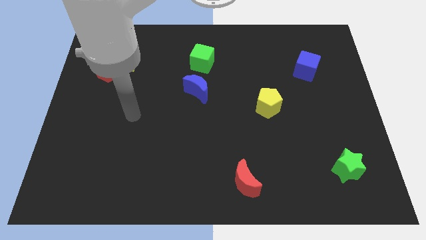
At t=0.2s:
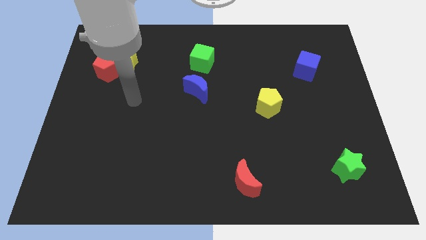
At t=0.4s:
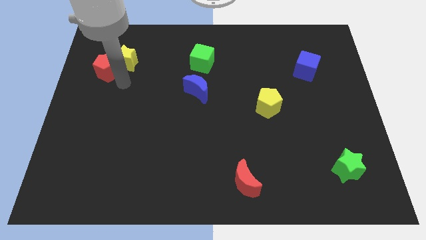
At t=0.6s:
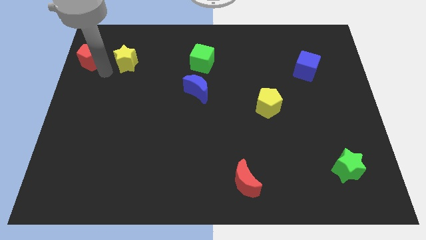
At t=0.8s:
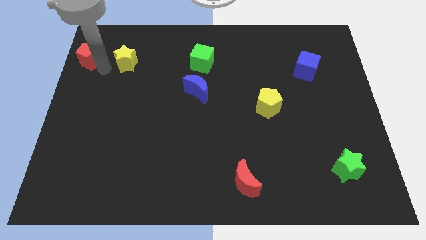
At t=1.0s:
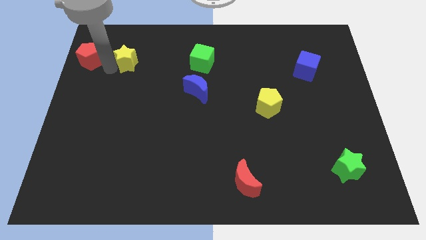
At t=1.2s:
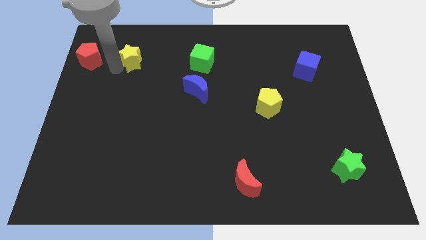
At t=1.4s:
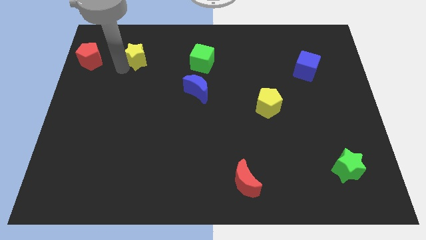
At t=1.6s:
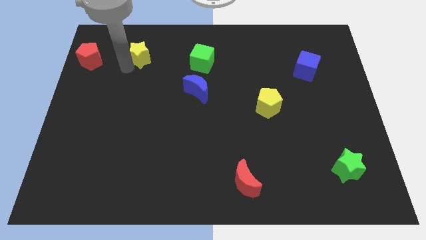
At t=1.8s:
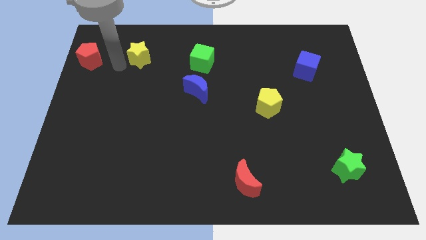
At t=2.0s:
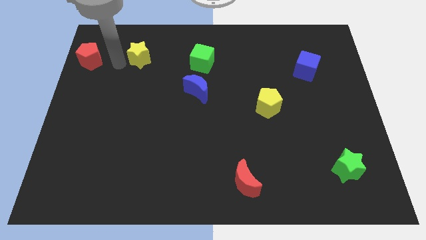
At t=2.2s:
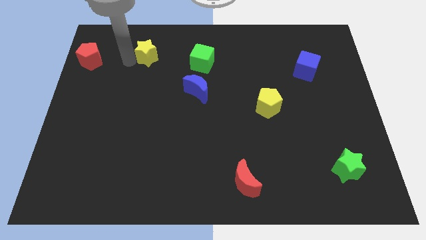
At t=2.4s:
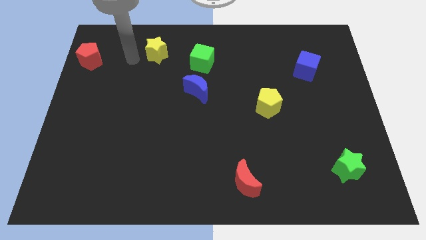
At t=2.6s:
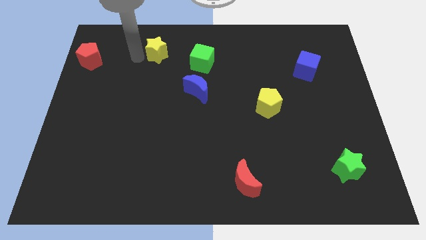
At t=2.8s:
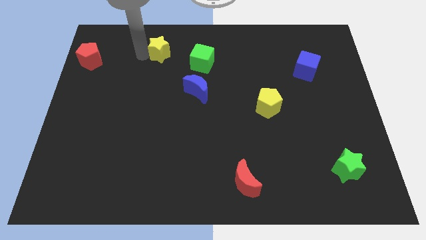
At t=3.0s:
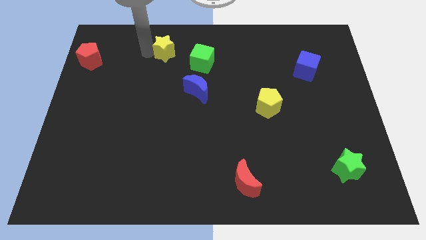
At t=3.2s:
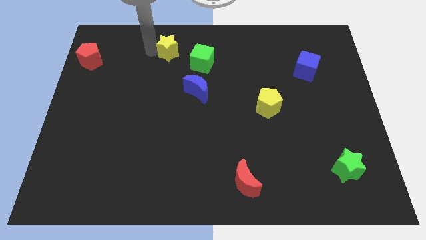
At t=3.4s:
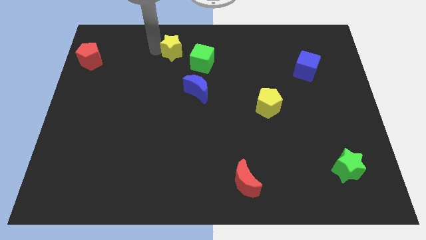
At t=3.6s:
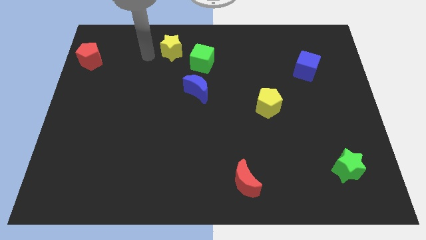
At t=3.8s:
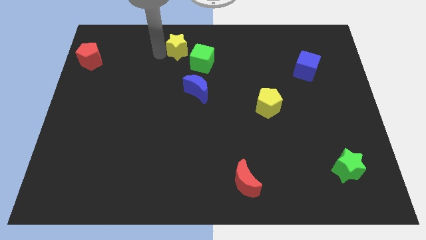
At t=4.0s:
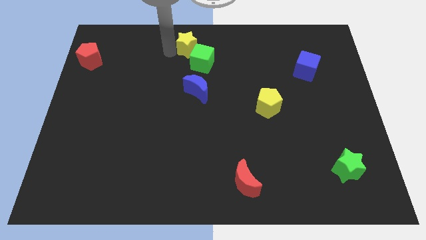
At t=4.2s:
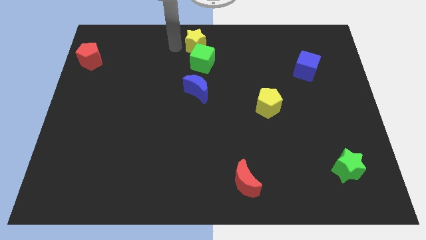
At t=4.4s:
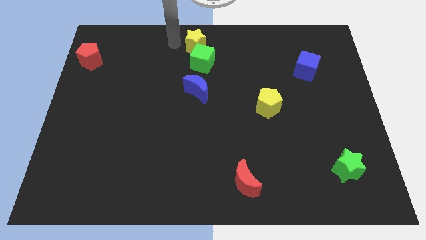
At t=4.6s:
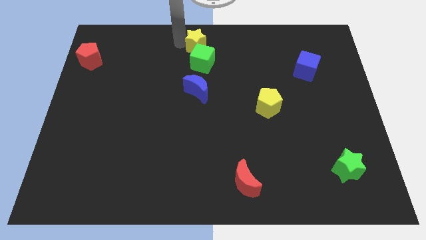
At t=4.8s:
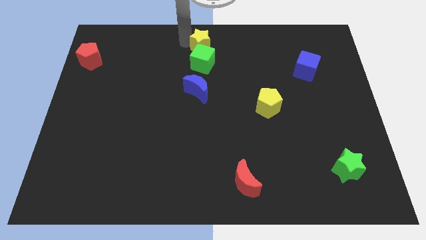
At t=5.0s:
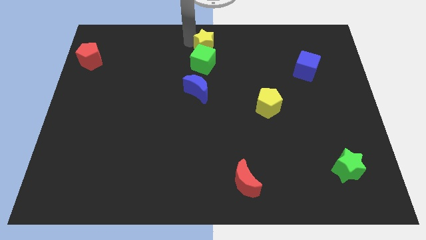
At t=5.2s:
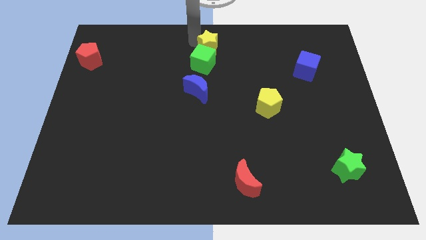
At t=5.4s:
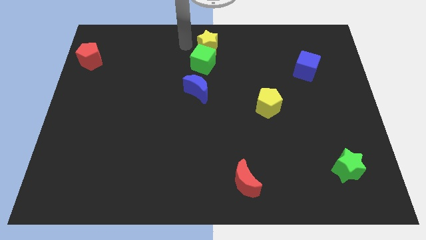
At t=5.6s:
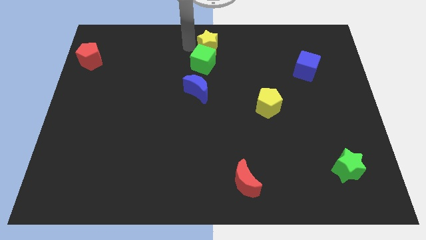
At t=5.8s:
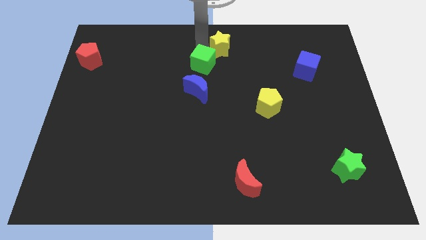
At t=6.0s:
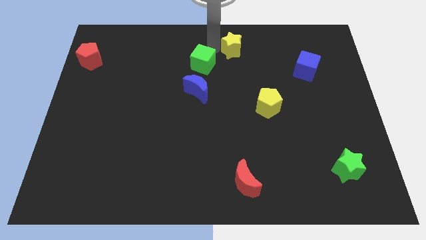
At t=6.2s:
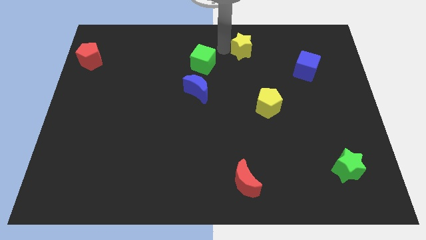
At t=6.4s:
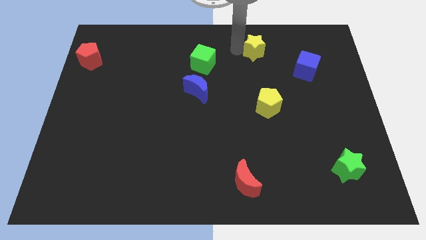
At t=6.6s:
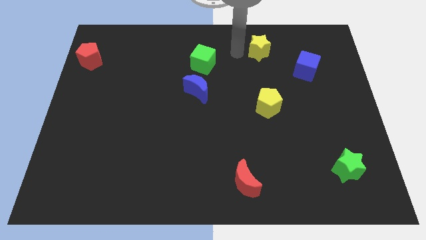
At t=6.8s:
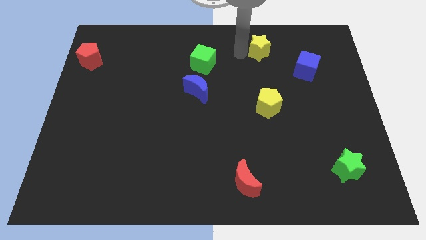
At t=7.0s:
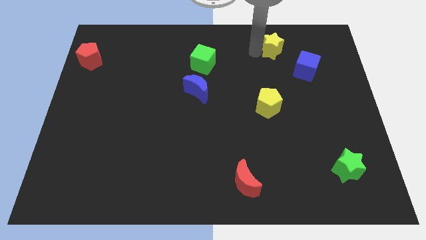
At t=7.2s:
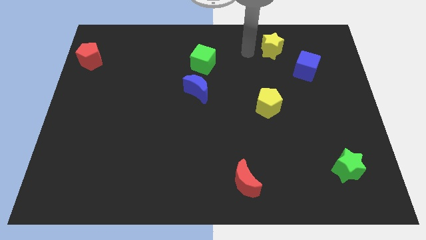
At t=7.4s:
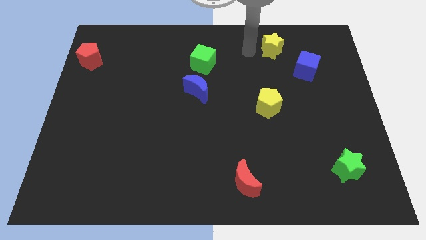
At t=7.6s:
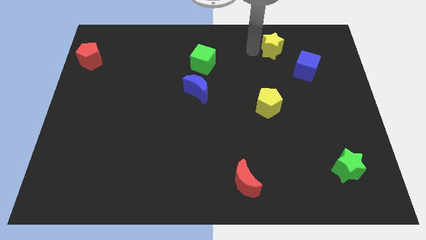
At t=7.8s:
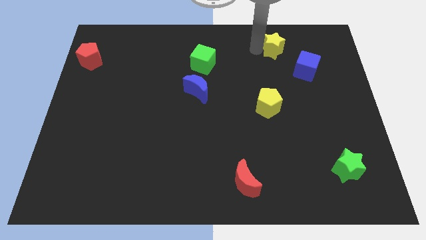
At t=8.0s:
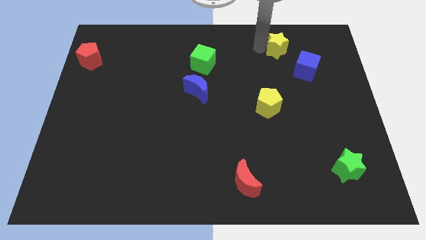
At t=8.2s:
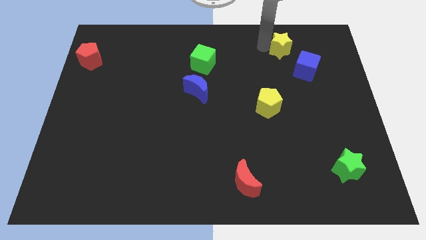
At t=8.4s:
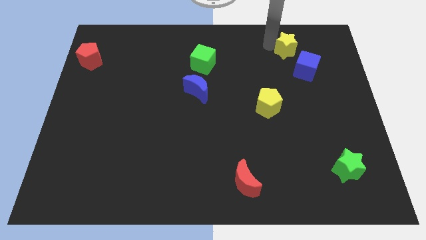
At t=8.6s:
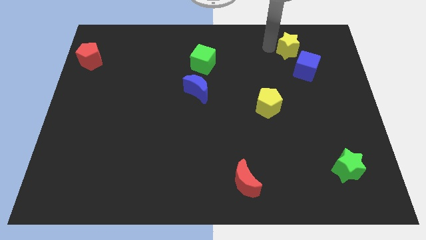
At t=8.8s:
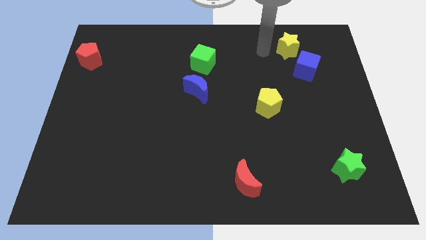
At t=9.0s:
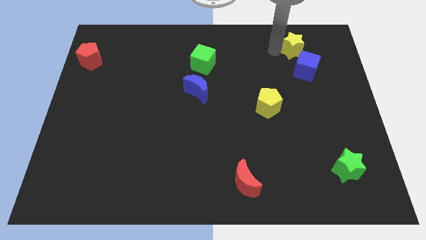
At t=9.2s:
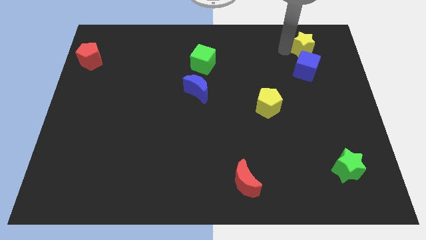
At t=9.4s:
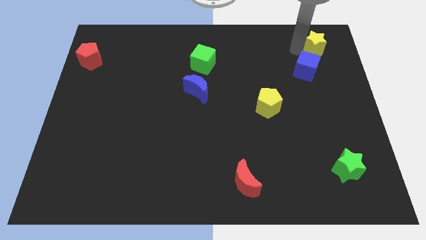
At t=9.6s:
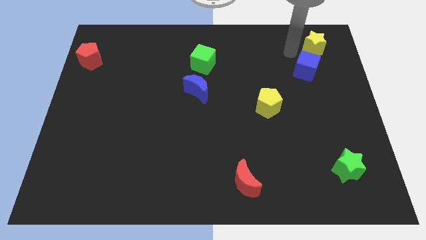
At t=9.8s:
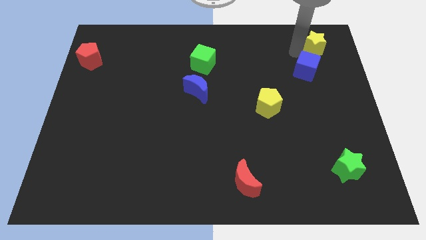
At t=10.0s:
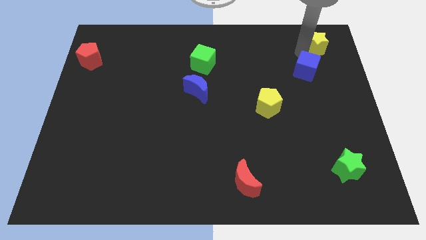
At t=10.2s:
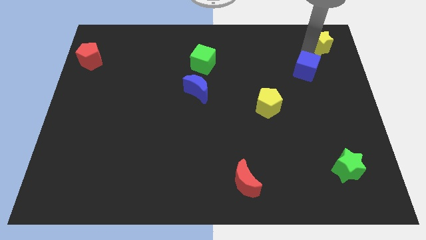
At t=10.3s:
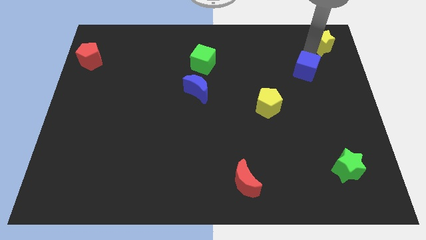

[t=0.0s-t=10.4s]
move the yellow star to the upper right corner

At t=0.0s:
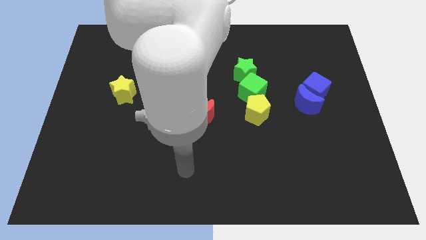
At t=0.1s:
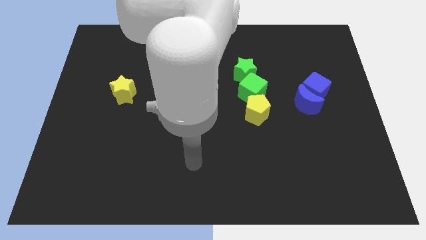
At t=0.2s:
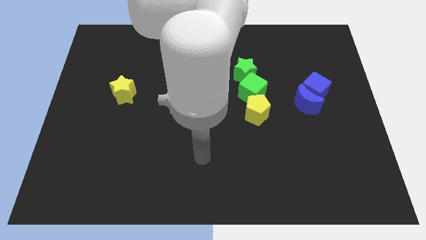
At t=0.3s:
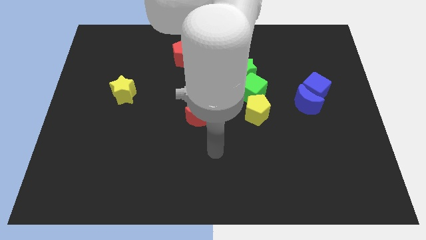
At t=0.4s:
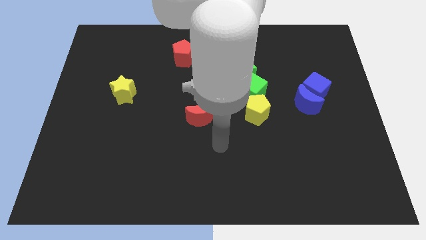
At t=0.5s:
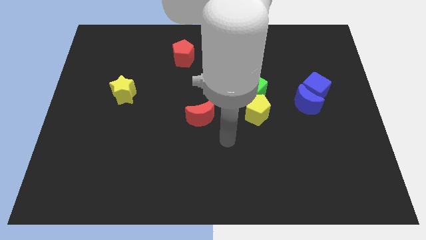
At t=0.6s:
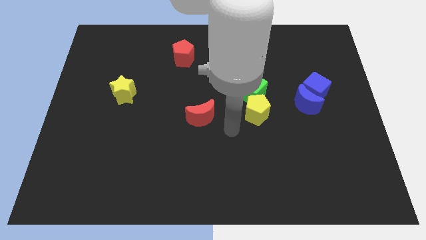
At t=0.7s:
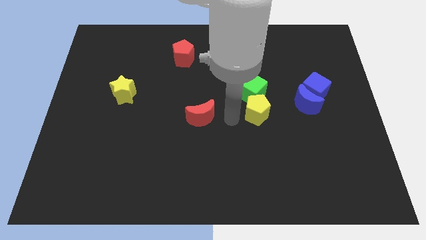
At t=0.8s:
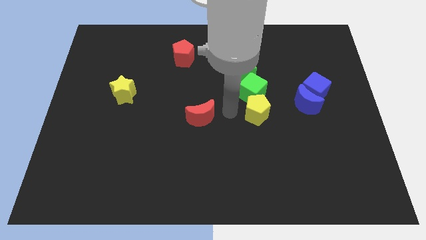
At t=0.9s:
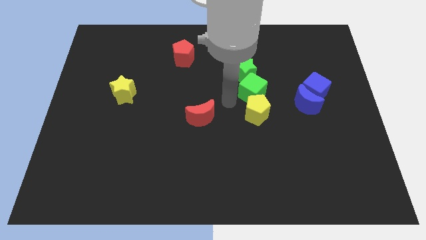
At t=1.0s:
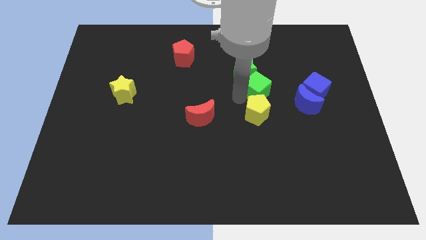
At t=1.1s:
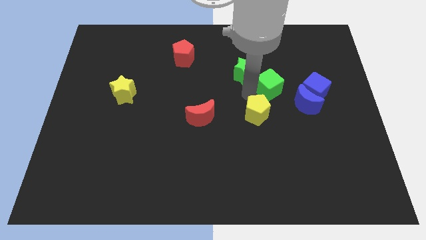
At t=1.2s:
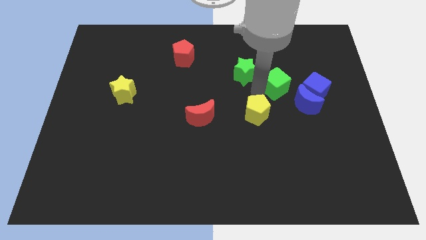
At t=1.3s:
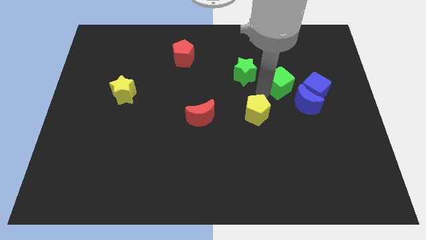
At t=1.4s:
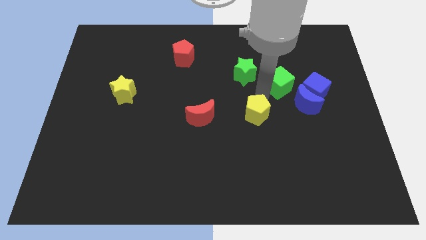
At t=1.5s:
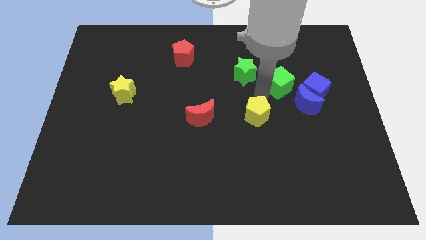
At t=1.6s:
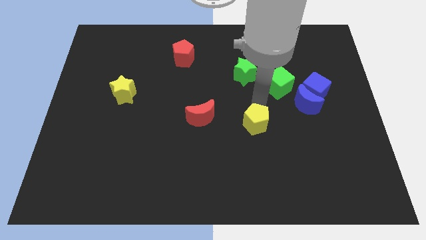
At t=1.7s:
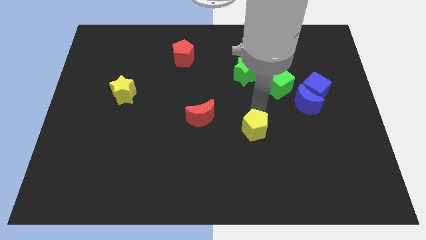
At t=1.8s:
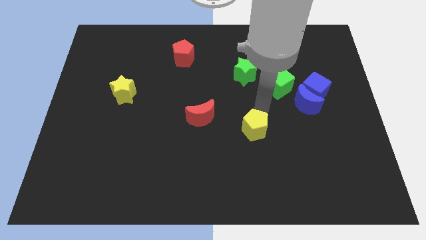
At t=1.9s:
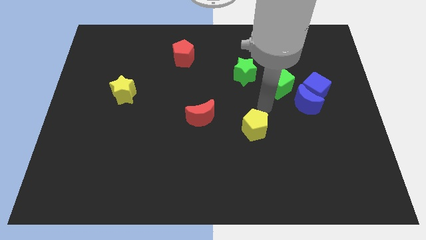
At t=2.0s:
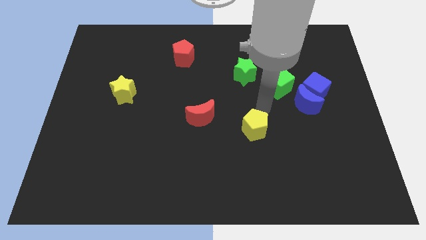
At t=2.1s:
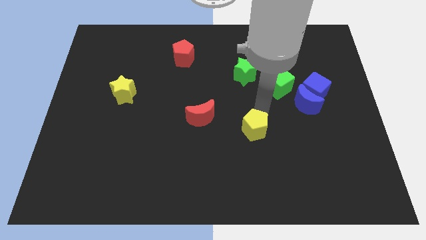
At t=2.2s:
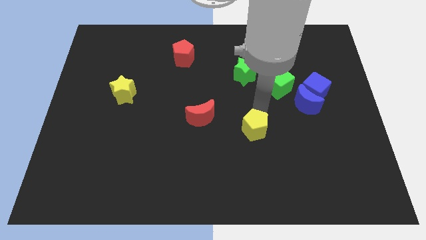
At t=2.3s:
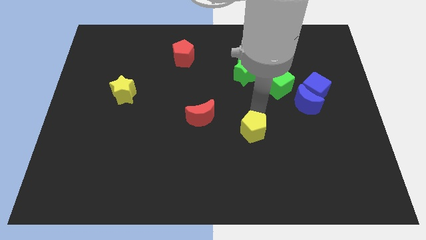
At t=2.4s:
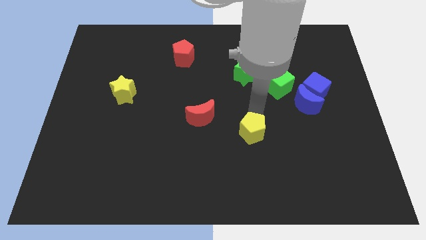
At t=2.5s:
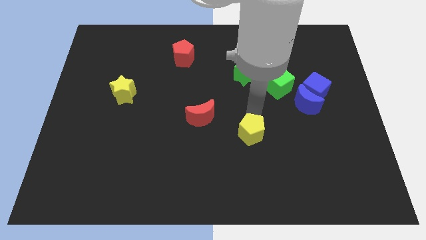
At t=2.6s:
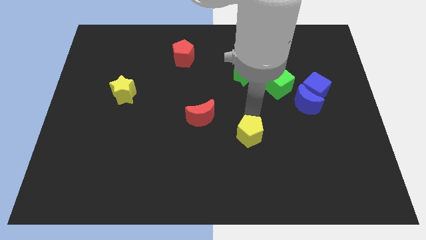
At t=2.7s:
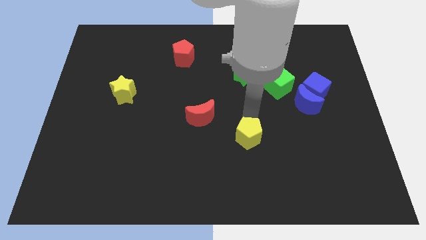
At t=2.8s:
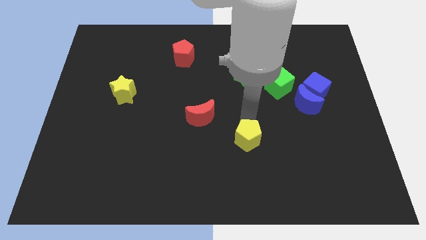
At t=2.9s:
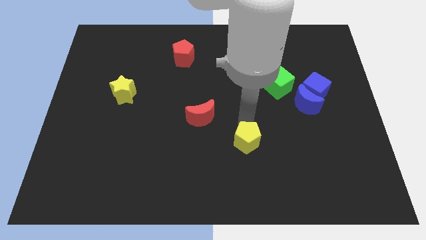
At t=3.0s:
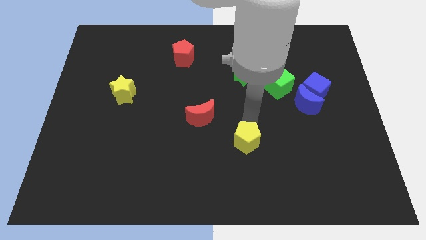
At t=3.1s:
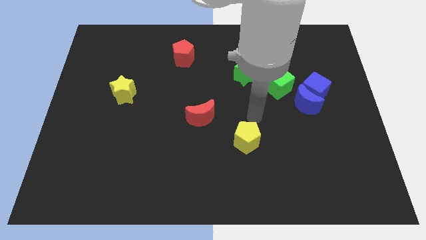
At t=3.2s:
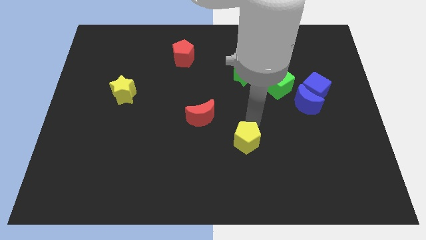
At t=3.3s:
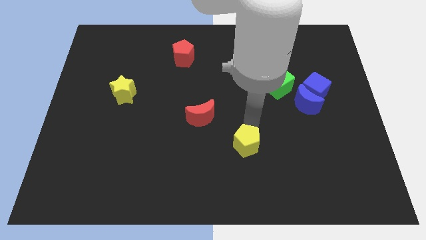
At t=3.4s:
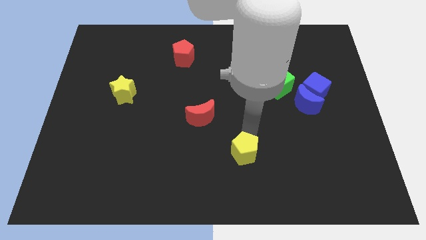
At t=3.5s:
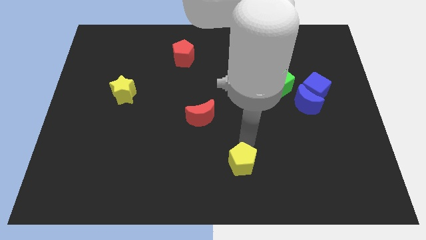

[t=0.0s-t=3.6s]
slide the yellow pentagon to the bottom side
